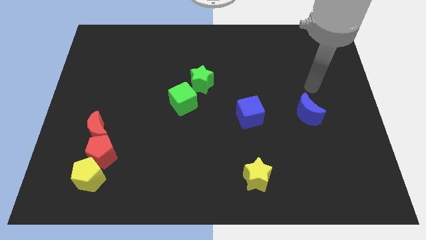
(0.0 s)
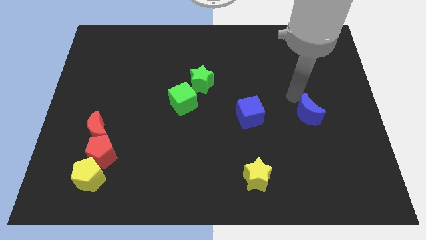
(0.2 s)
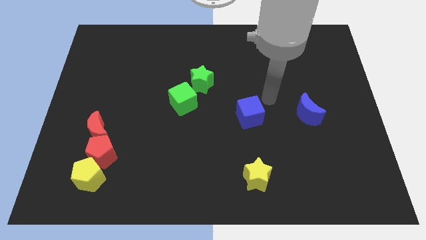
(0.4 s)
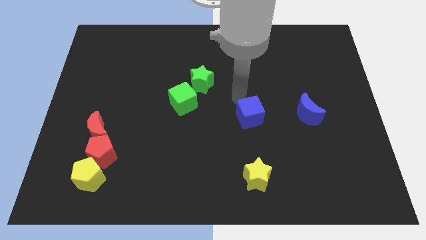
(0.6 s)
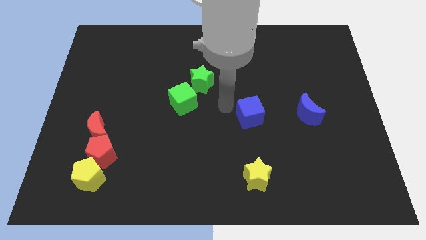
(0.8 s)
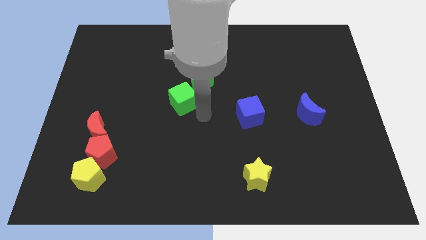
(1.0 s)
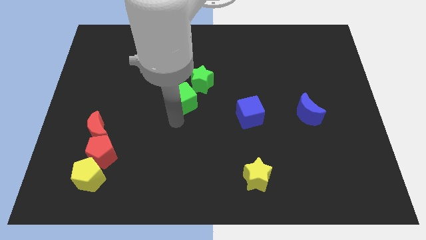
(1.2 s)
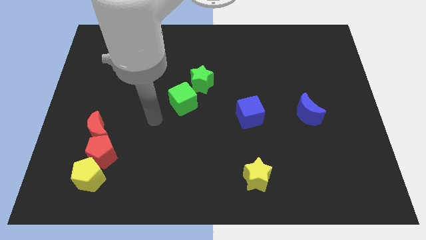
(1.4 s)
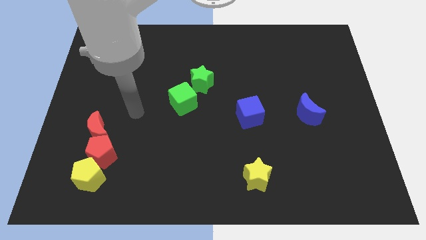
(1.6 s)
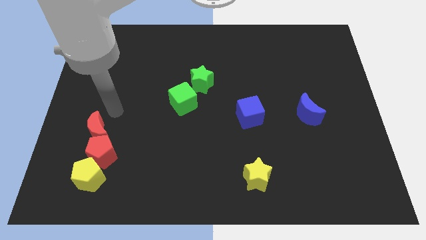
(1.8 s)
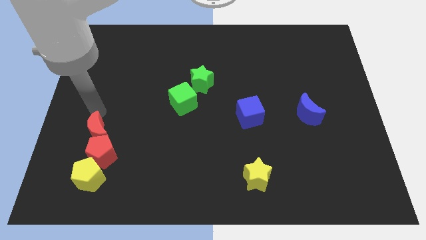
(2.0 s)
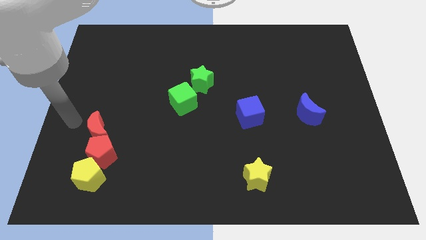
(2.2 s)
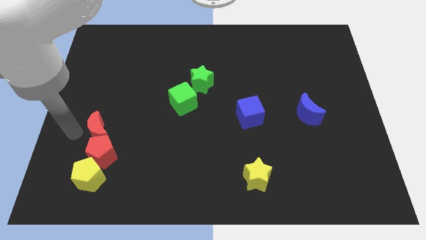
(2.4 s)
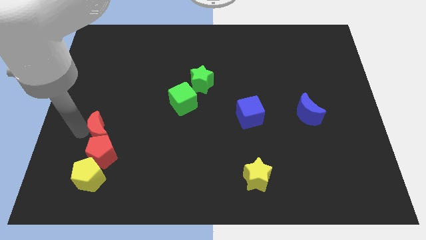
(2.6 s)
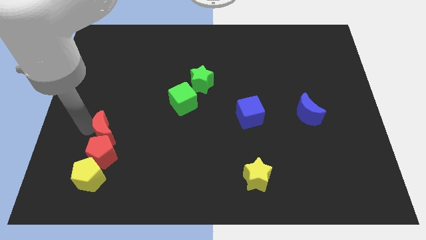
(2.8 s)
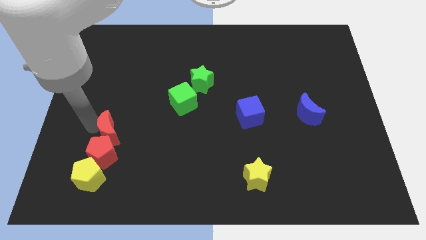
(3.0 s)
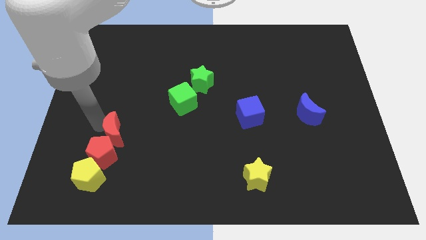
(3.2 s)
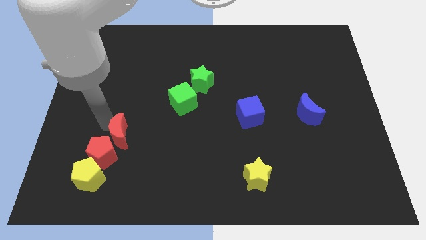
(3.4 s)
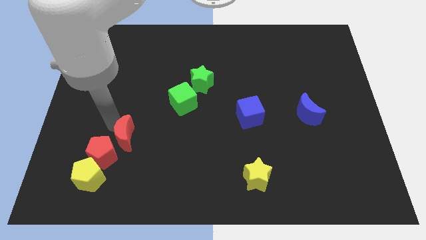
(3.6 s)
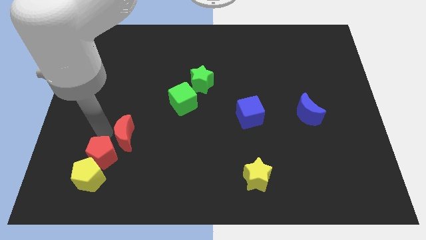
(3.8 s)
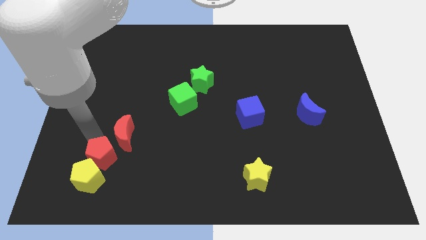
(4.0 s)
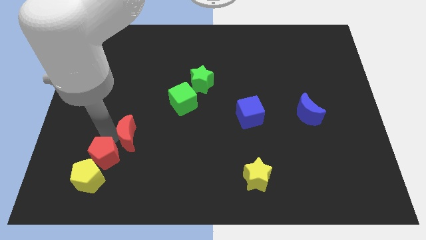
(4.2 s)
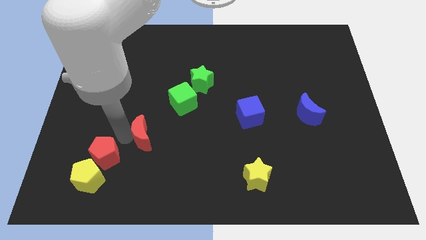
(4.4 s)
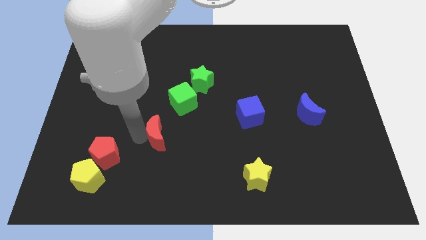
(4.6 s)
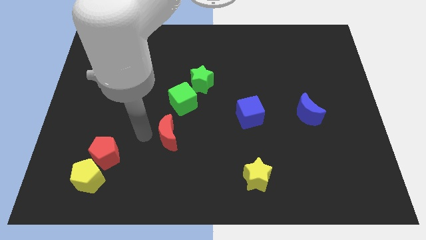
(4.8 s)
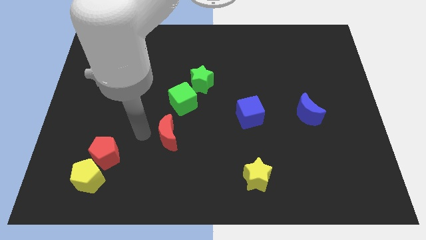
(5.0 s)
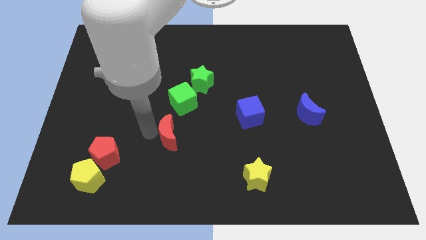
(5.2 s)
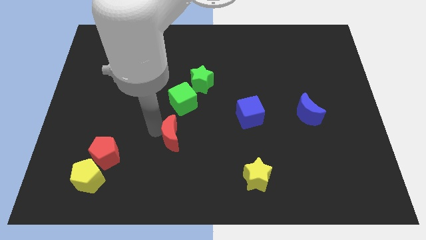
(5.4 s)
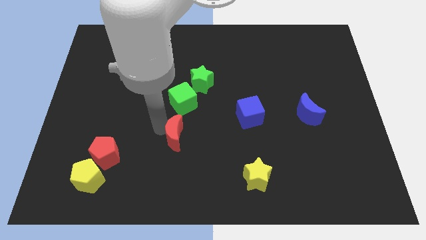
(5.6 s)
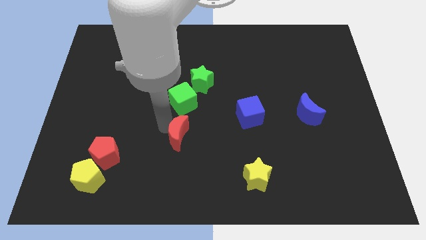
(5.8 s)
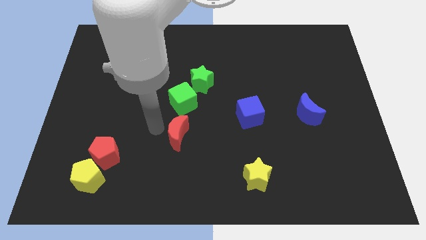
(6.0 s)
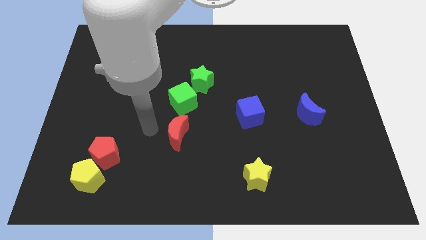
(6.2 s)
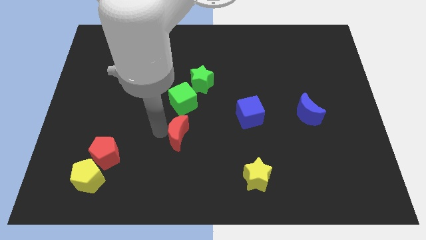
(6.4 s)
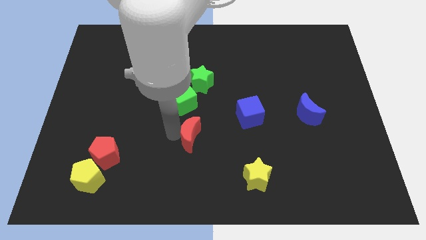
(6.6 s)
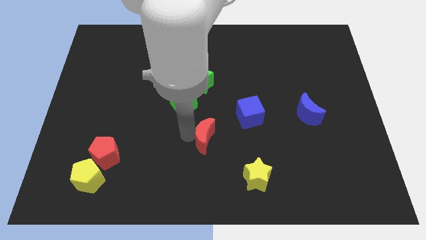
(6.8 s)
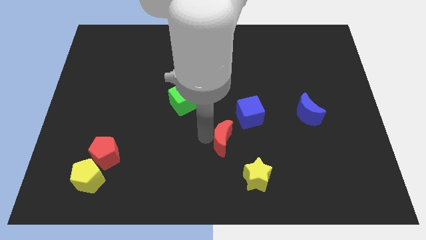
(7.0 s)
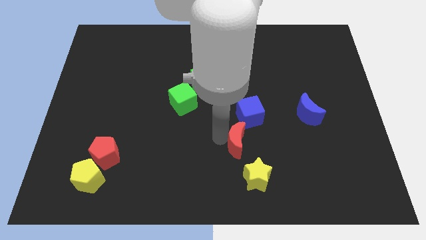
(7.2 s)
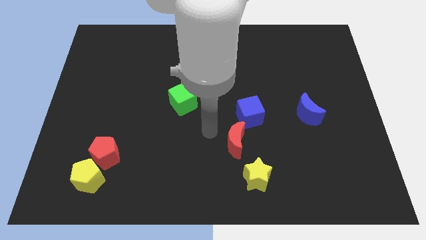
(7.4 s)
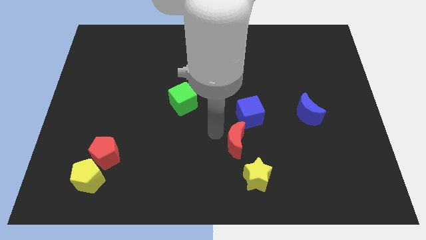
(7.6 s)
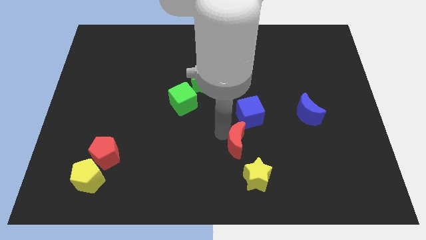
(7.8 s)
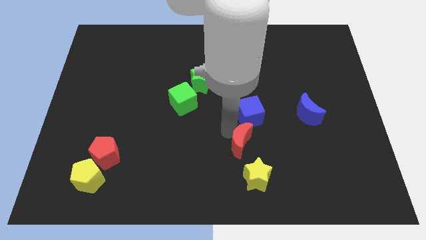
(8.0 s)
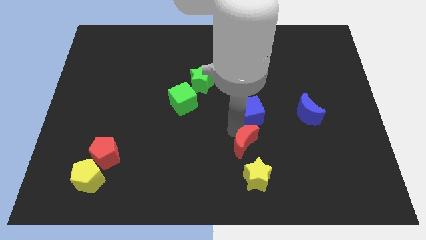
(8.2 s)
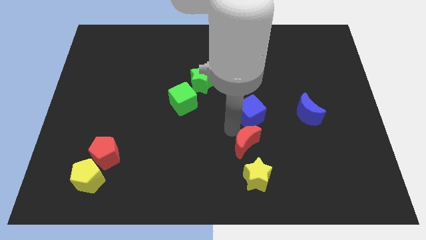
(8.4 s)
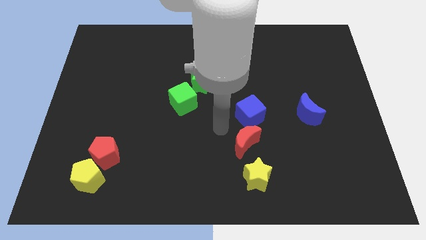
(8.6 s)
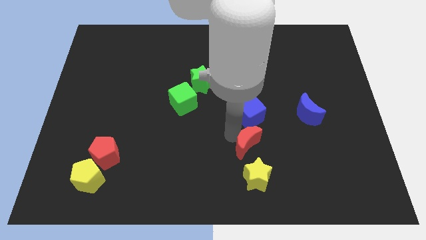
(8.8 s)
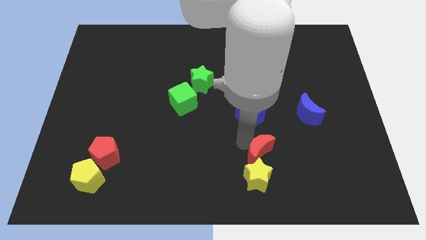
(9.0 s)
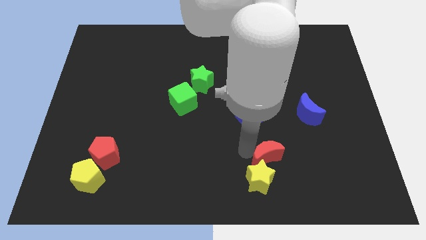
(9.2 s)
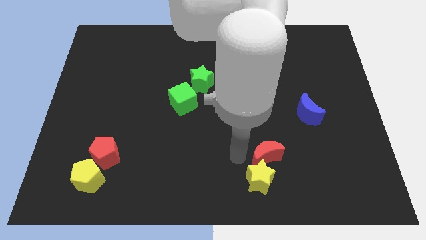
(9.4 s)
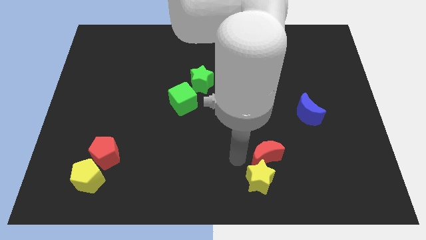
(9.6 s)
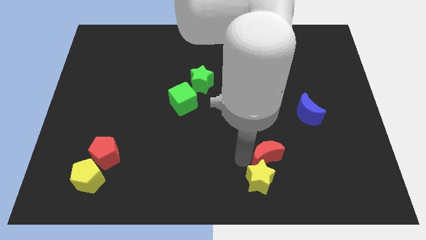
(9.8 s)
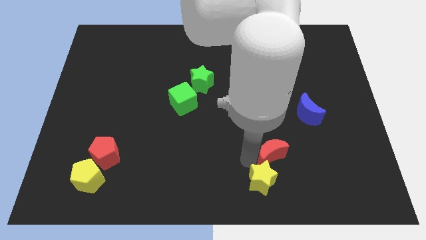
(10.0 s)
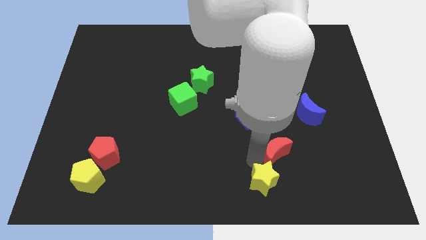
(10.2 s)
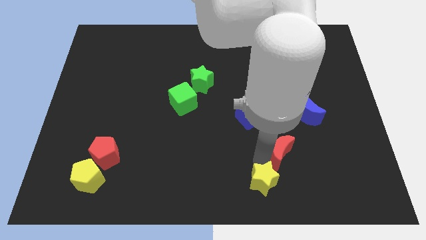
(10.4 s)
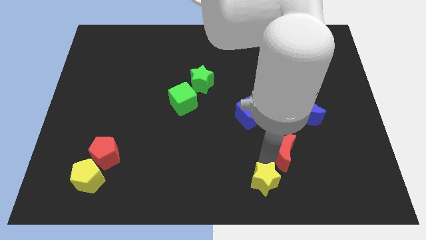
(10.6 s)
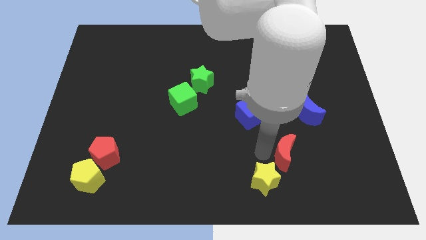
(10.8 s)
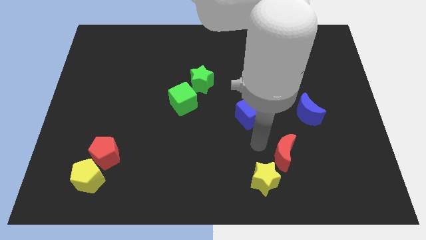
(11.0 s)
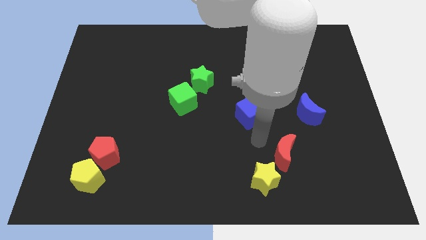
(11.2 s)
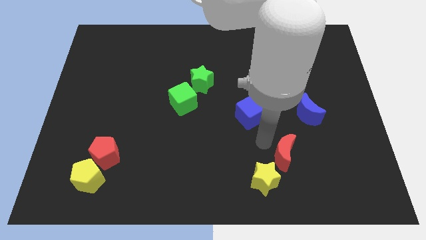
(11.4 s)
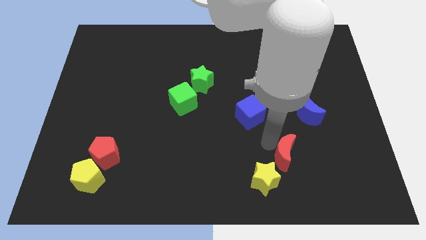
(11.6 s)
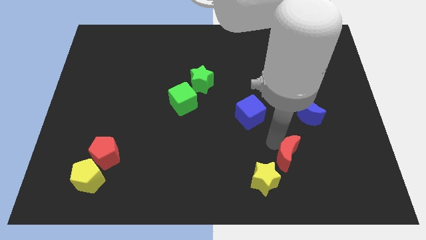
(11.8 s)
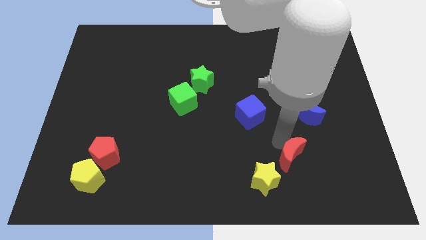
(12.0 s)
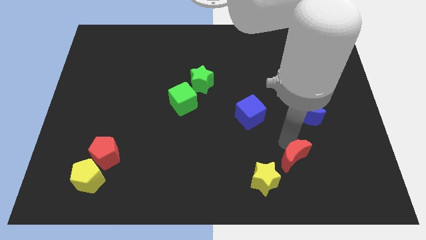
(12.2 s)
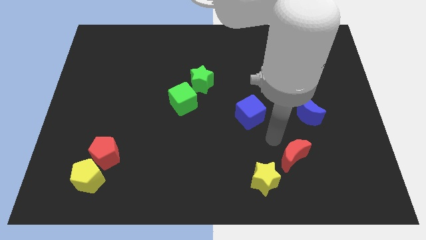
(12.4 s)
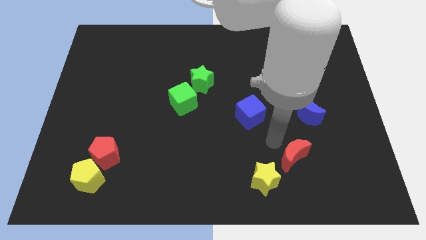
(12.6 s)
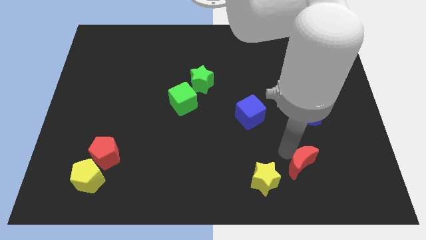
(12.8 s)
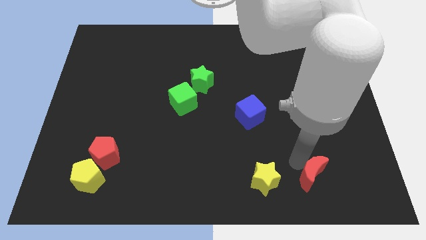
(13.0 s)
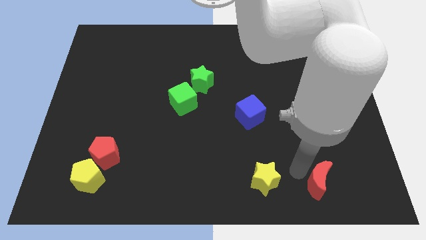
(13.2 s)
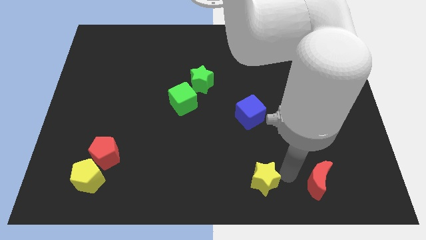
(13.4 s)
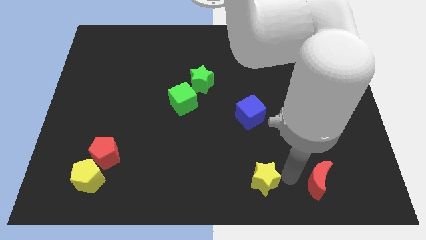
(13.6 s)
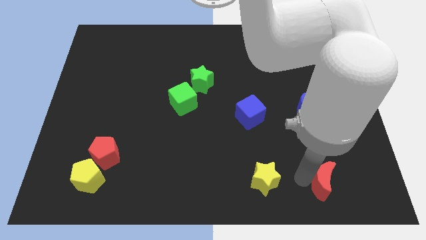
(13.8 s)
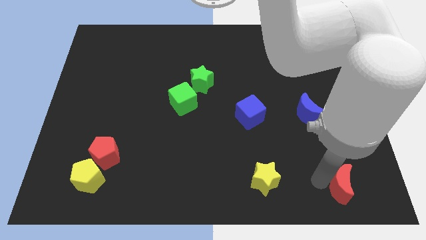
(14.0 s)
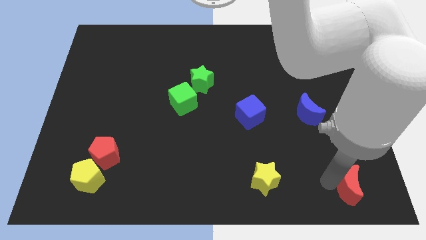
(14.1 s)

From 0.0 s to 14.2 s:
put the red moon to the lower right corner
